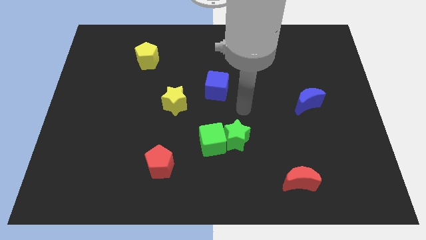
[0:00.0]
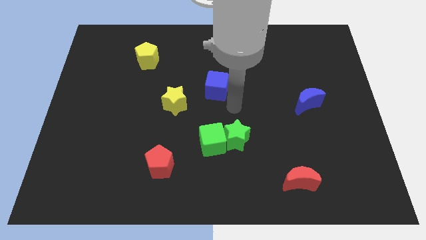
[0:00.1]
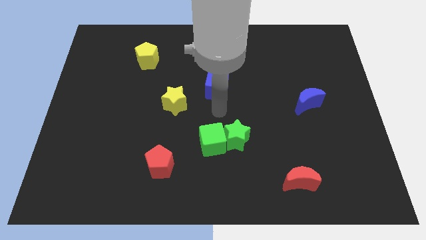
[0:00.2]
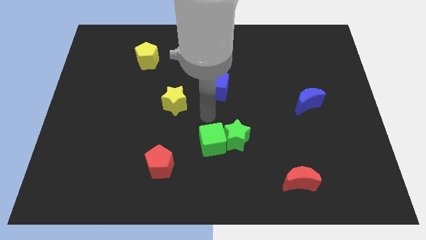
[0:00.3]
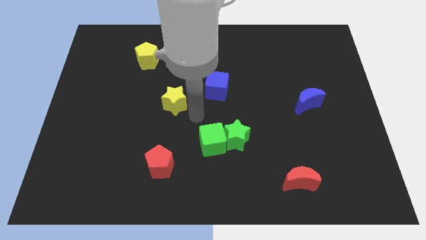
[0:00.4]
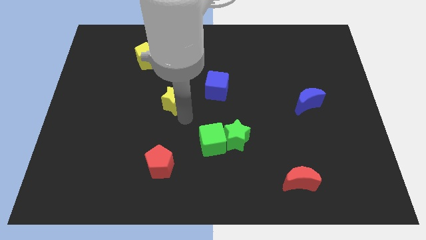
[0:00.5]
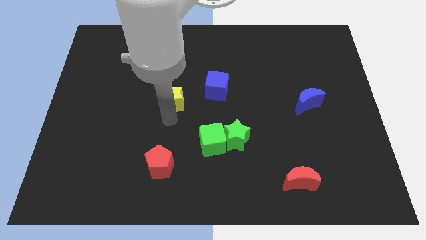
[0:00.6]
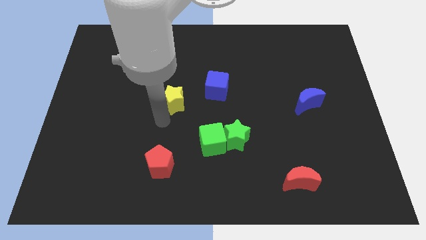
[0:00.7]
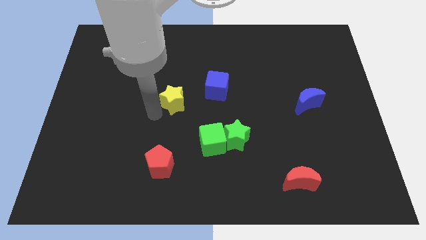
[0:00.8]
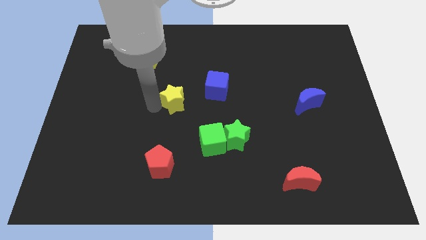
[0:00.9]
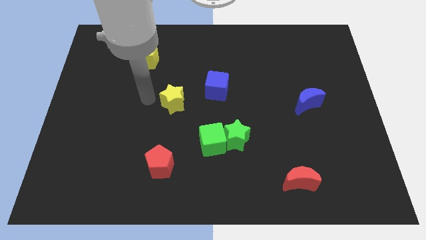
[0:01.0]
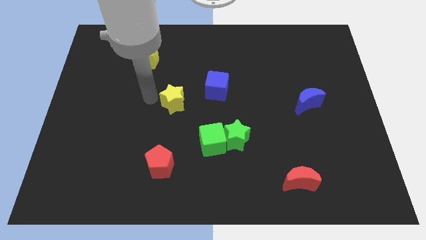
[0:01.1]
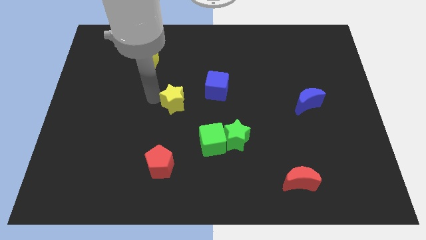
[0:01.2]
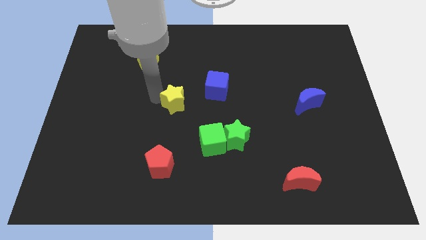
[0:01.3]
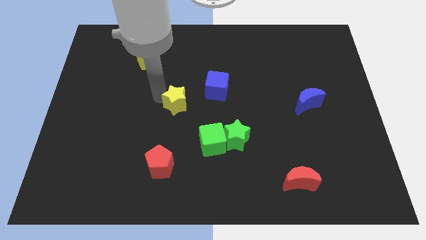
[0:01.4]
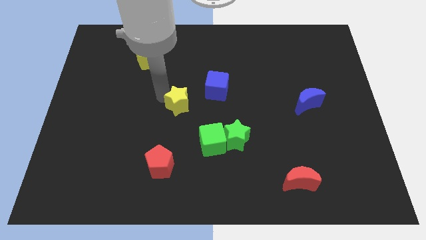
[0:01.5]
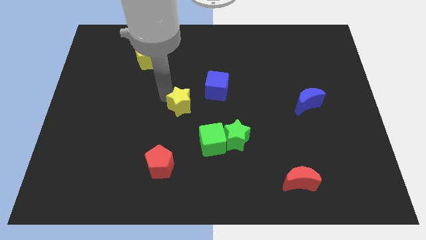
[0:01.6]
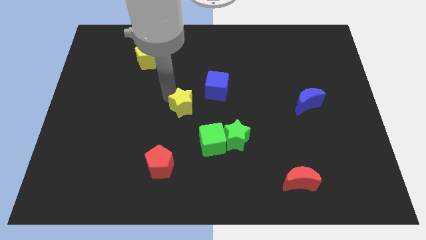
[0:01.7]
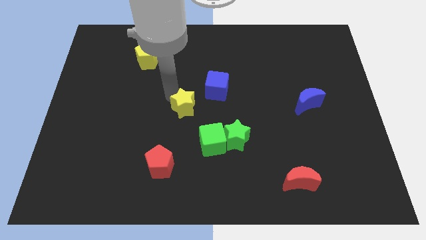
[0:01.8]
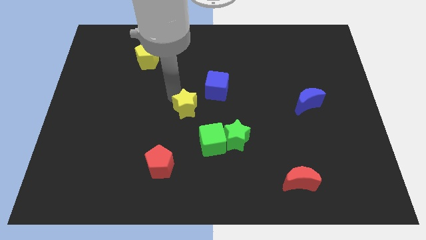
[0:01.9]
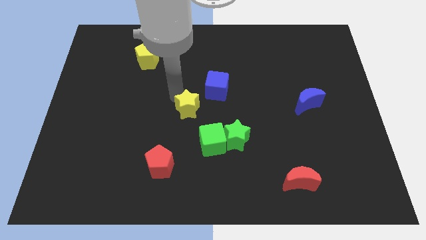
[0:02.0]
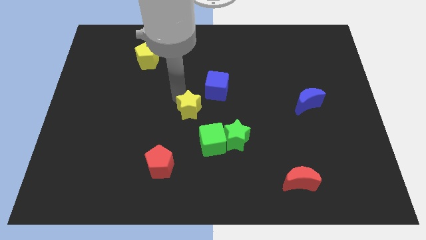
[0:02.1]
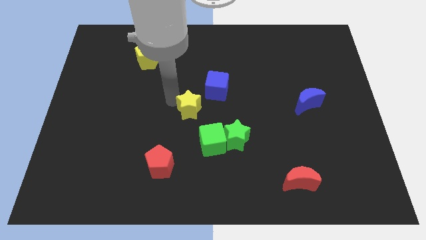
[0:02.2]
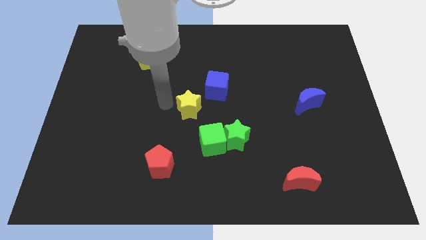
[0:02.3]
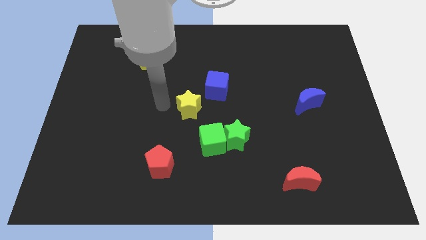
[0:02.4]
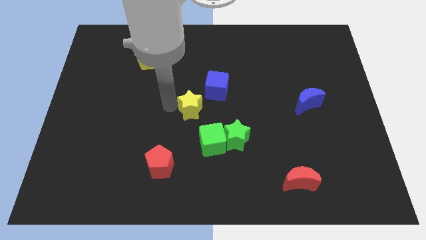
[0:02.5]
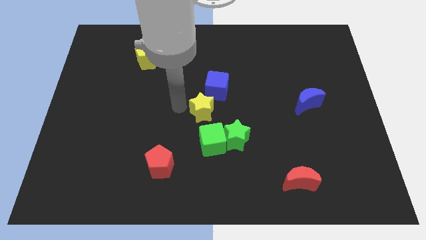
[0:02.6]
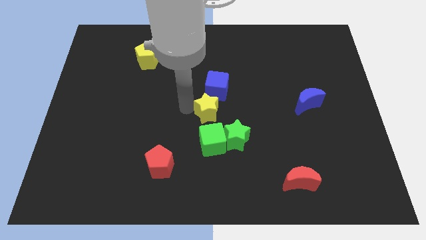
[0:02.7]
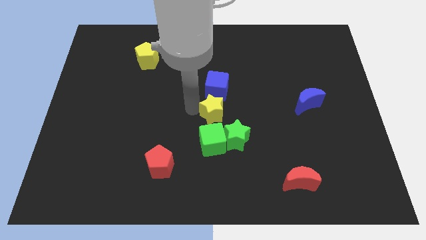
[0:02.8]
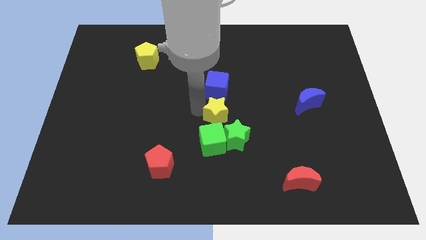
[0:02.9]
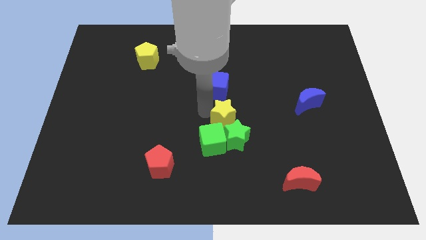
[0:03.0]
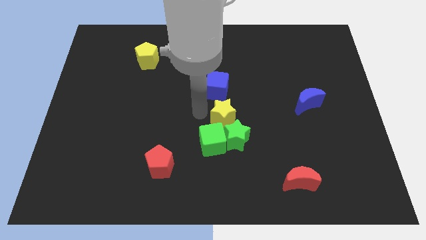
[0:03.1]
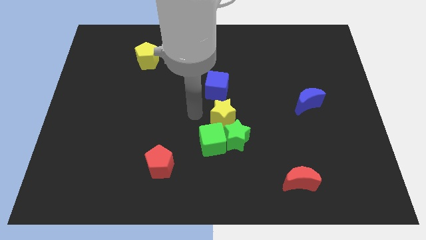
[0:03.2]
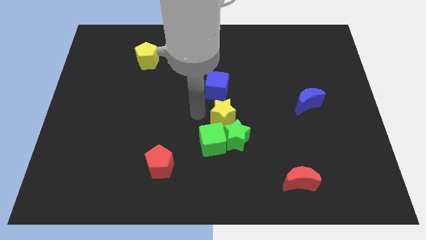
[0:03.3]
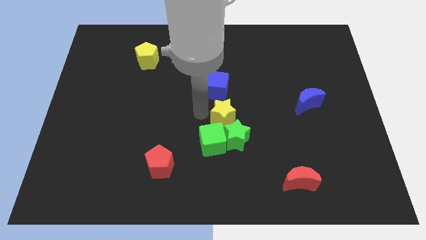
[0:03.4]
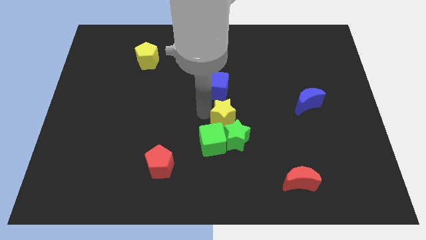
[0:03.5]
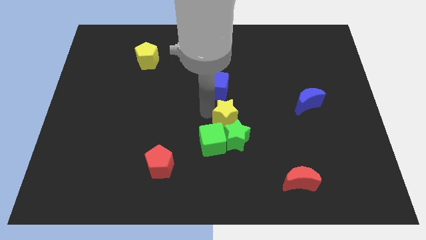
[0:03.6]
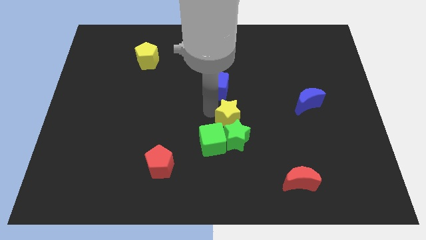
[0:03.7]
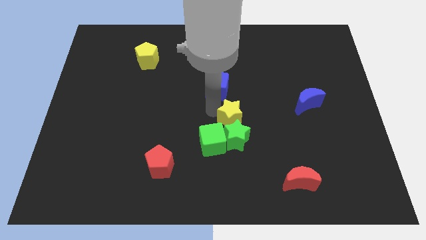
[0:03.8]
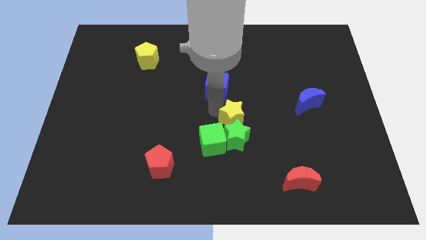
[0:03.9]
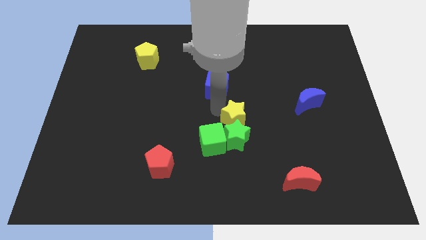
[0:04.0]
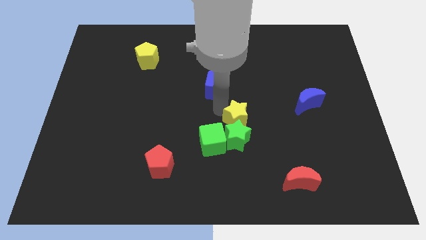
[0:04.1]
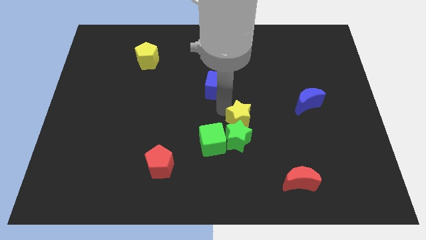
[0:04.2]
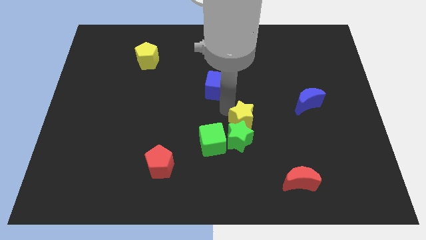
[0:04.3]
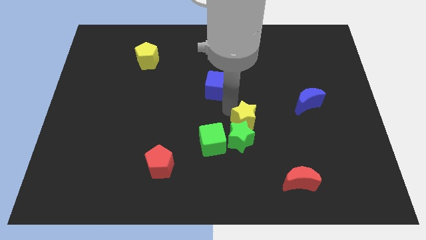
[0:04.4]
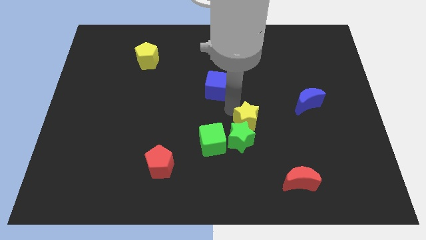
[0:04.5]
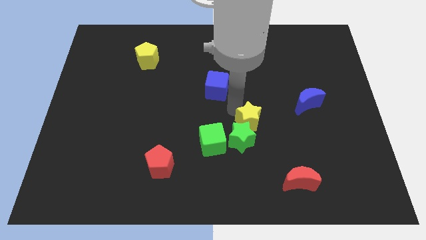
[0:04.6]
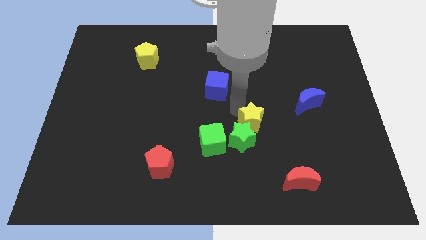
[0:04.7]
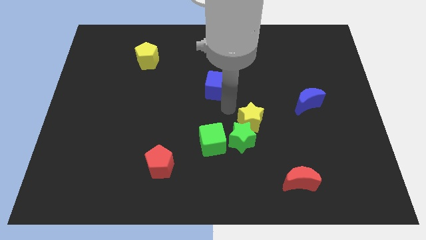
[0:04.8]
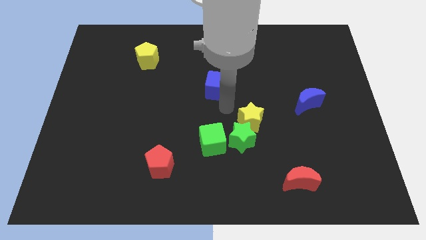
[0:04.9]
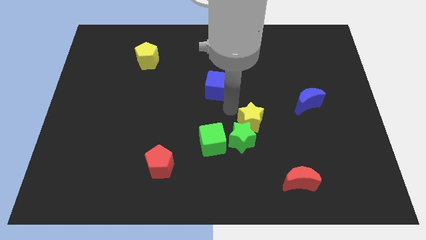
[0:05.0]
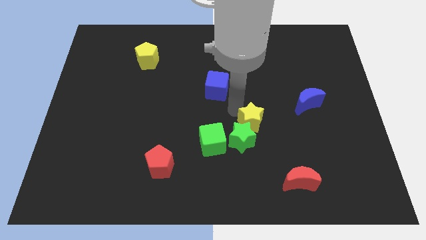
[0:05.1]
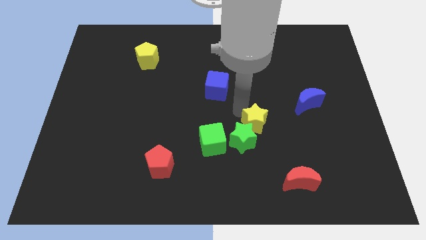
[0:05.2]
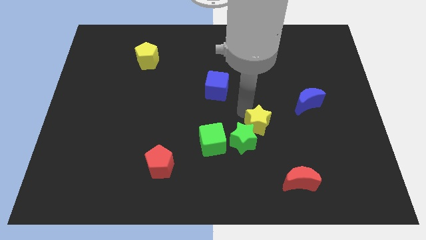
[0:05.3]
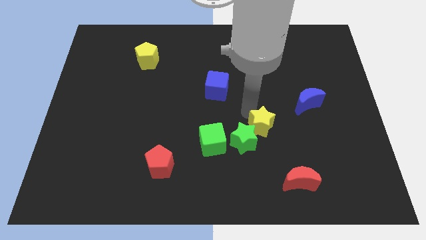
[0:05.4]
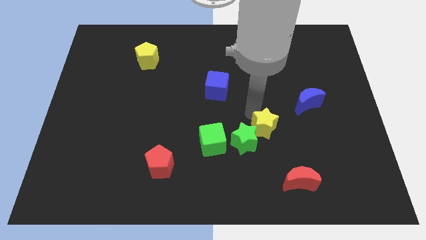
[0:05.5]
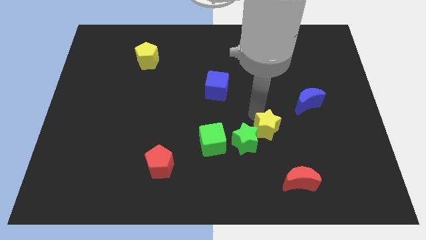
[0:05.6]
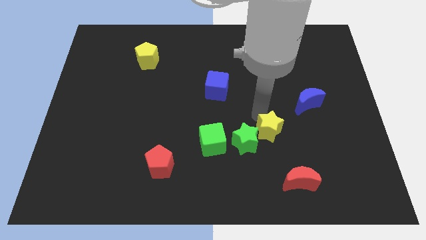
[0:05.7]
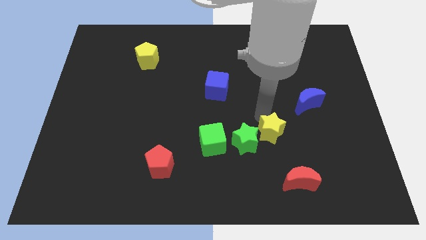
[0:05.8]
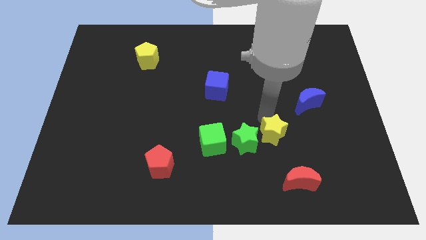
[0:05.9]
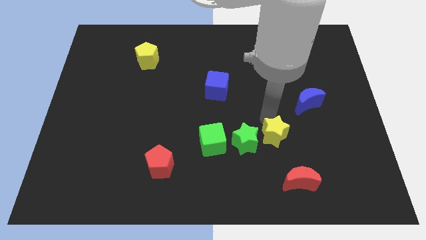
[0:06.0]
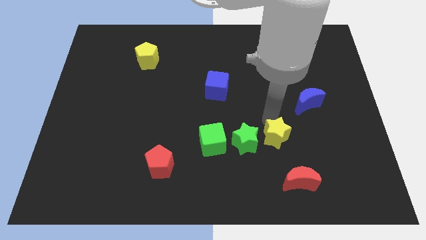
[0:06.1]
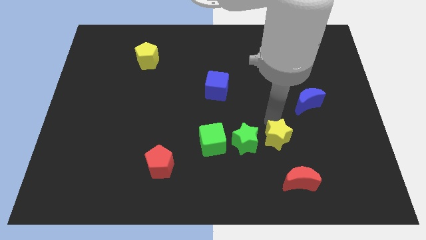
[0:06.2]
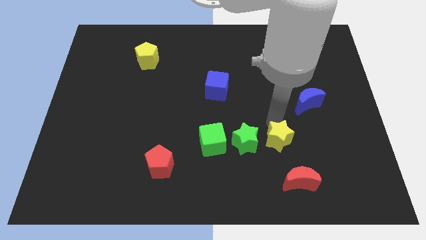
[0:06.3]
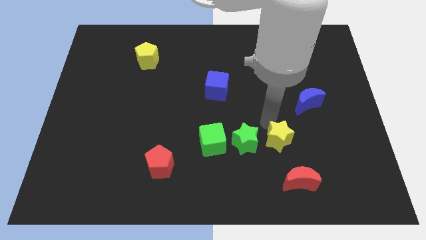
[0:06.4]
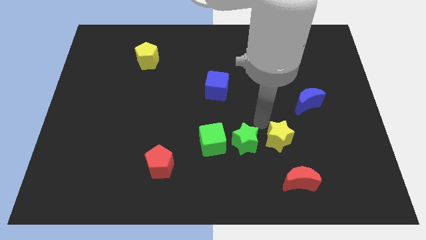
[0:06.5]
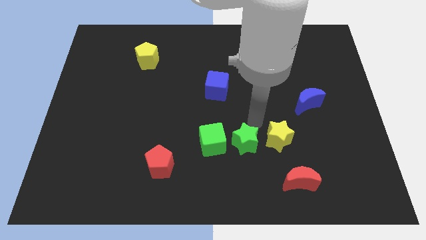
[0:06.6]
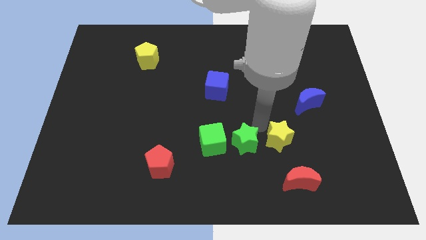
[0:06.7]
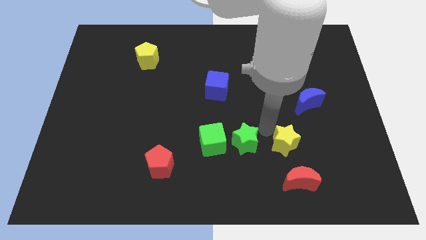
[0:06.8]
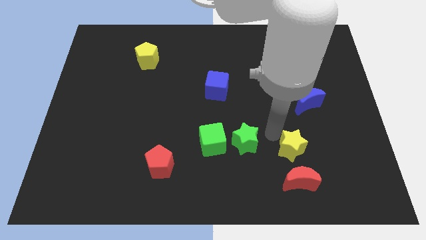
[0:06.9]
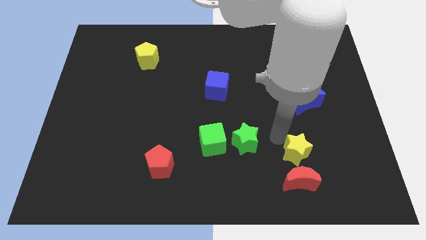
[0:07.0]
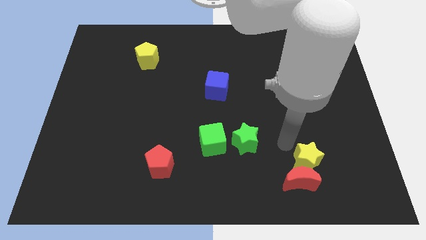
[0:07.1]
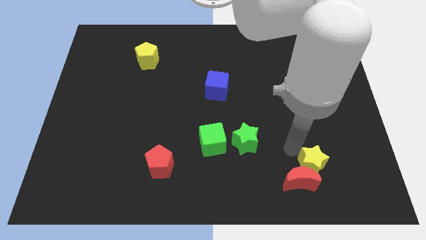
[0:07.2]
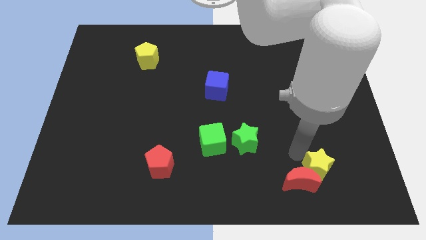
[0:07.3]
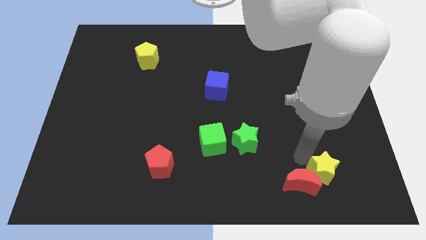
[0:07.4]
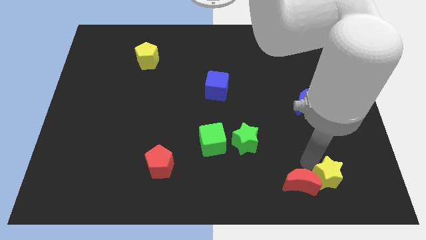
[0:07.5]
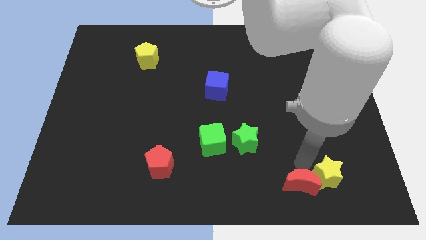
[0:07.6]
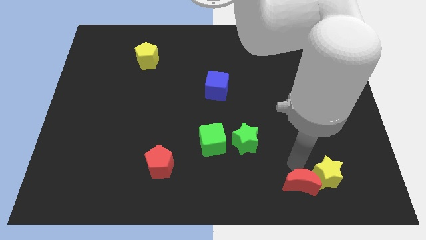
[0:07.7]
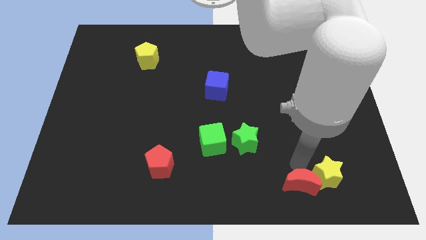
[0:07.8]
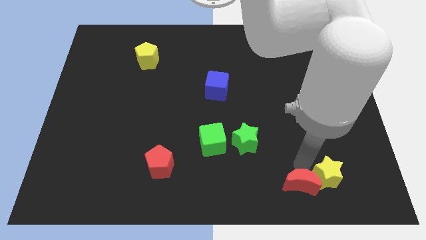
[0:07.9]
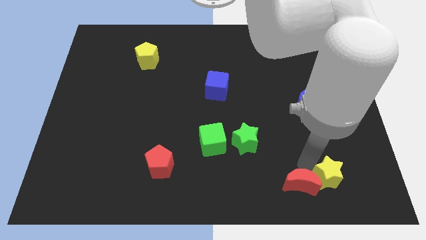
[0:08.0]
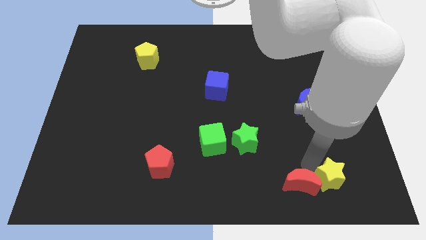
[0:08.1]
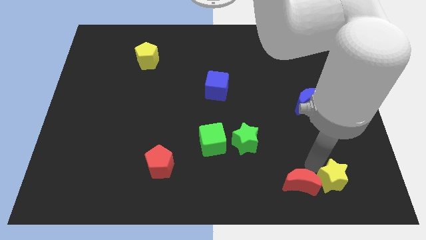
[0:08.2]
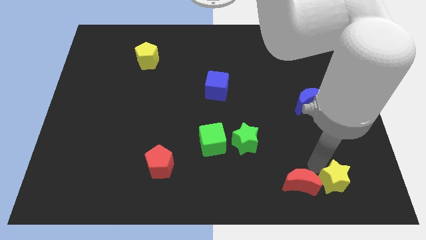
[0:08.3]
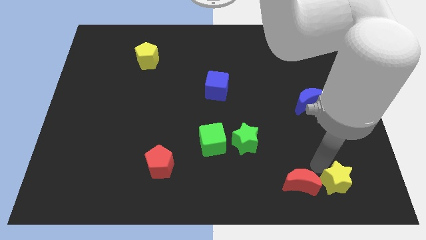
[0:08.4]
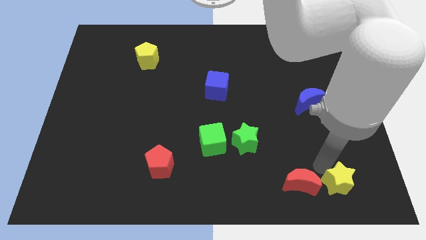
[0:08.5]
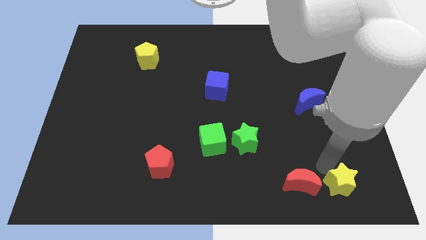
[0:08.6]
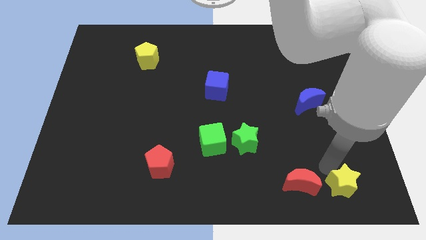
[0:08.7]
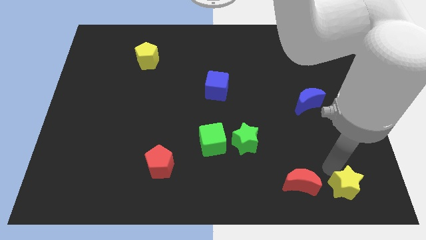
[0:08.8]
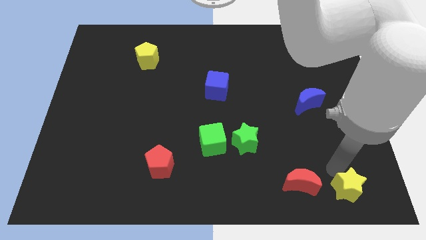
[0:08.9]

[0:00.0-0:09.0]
move the yellow star to the lower right corner
